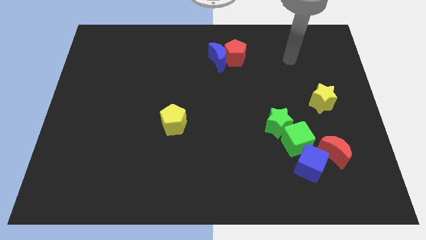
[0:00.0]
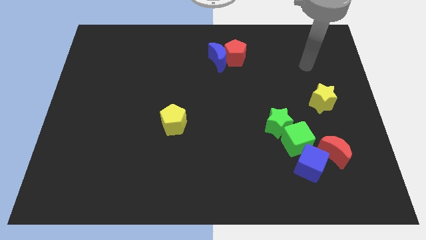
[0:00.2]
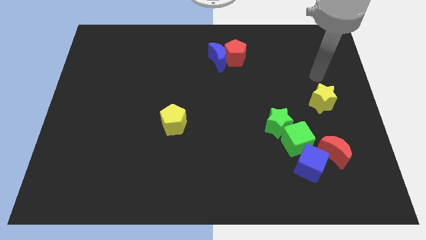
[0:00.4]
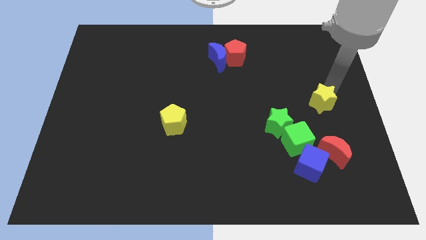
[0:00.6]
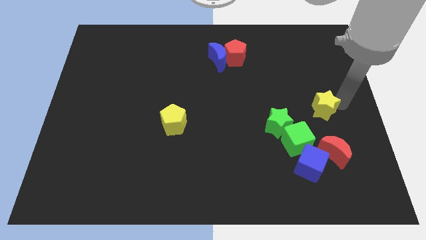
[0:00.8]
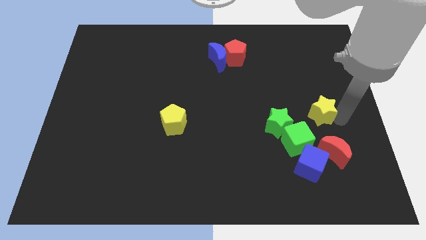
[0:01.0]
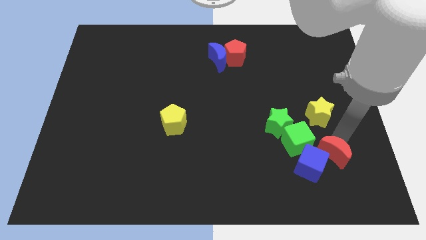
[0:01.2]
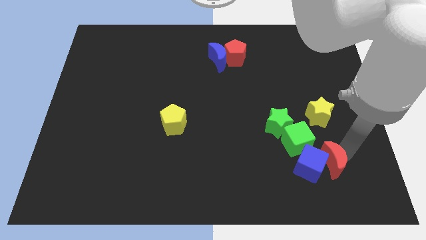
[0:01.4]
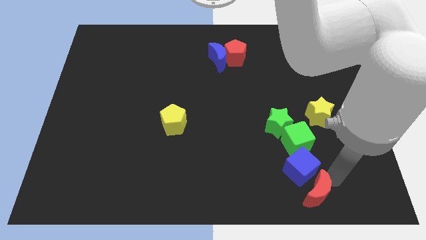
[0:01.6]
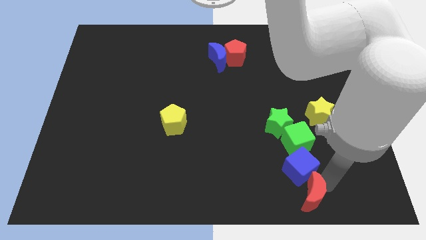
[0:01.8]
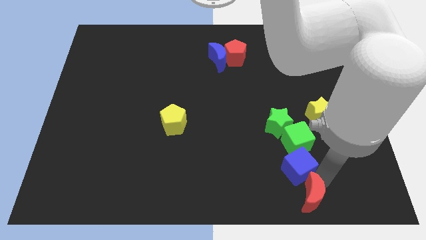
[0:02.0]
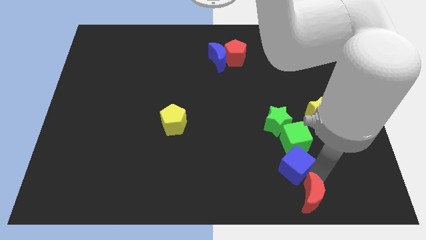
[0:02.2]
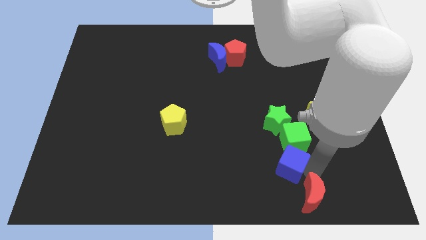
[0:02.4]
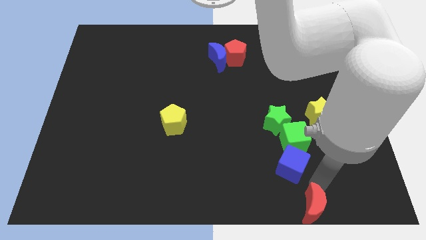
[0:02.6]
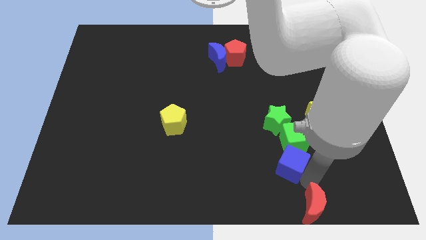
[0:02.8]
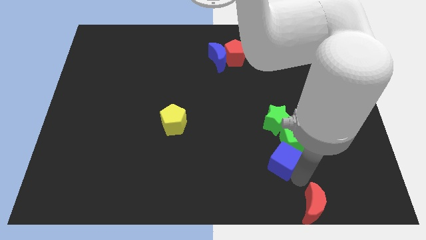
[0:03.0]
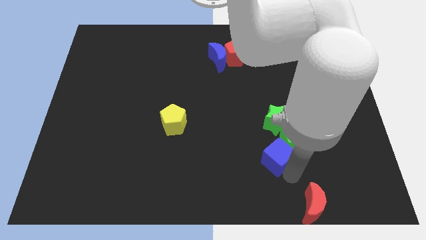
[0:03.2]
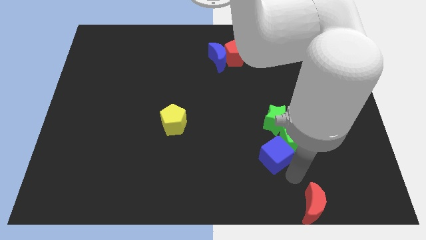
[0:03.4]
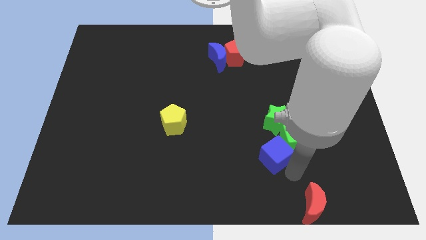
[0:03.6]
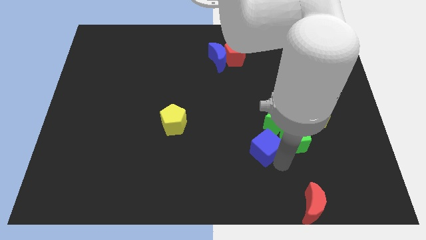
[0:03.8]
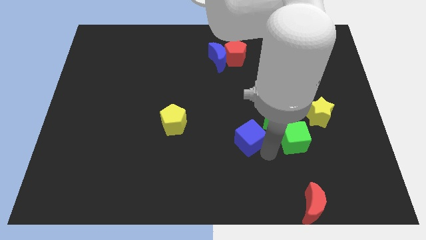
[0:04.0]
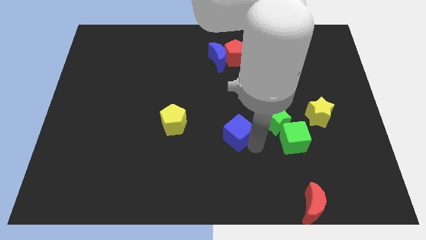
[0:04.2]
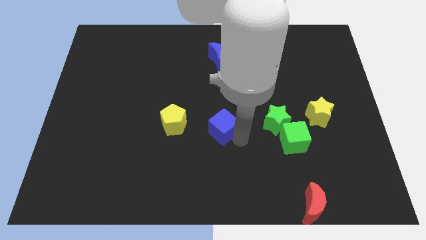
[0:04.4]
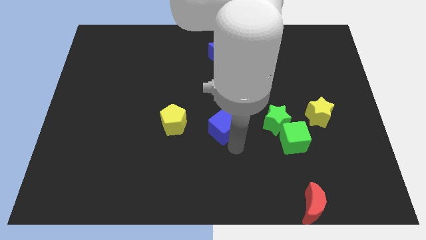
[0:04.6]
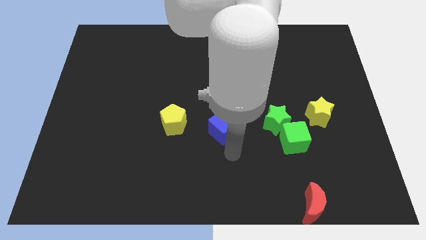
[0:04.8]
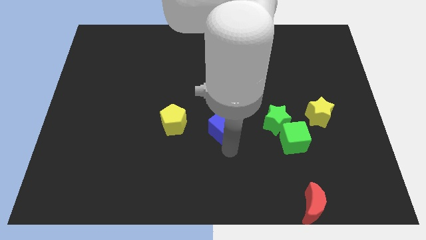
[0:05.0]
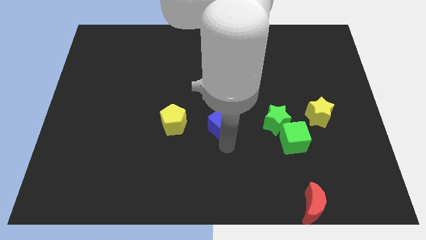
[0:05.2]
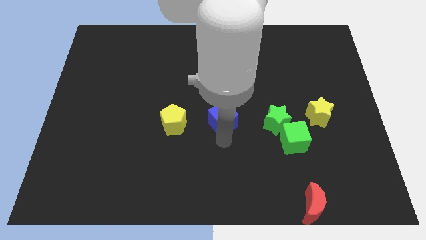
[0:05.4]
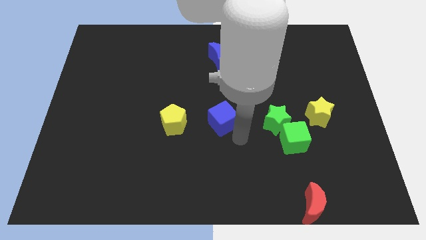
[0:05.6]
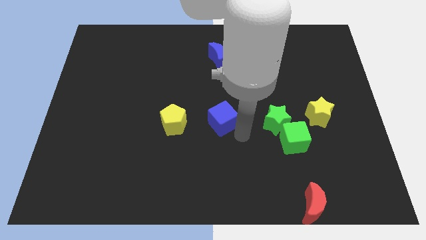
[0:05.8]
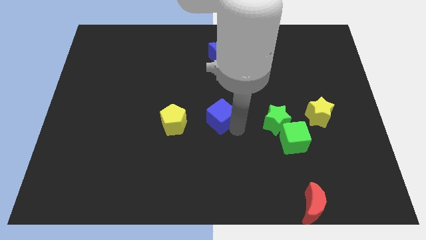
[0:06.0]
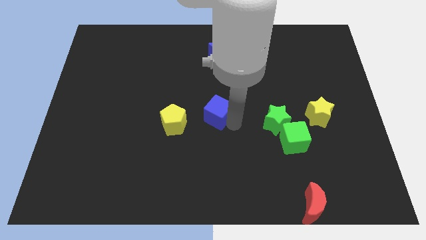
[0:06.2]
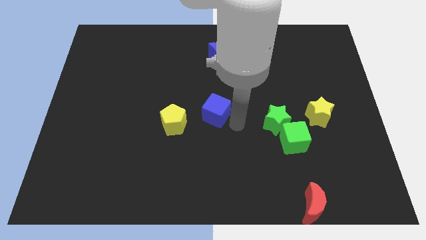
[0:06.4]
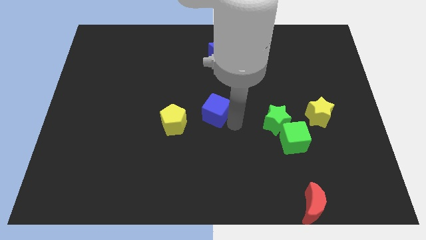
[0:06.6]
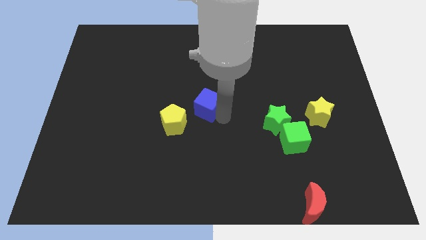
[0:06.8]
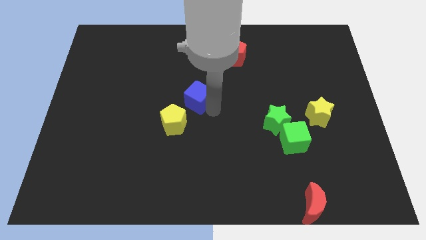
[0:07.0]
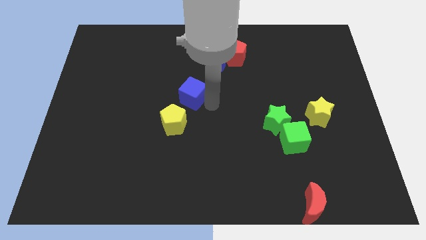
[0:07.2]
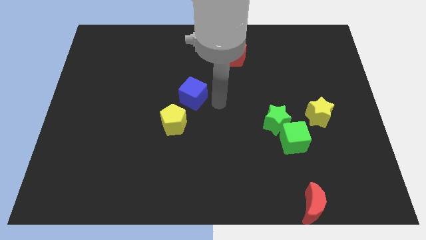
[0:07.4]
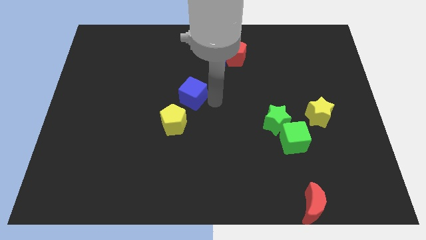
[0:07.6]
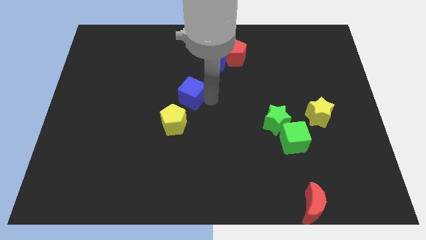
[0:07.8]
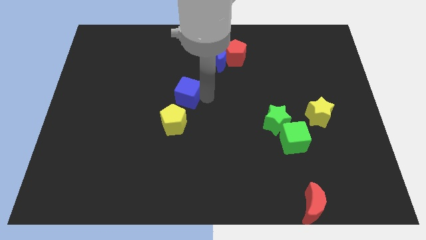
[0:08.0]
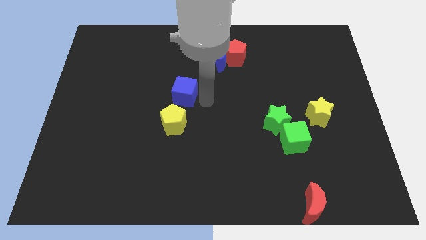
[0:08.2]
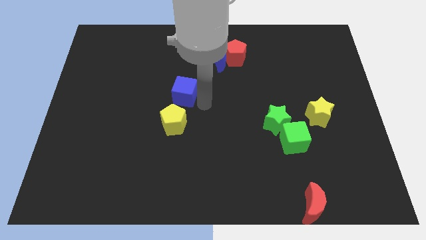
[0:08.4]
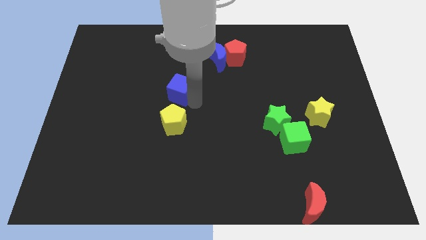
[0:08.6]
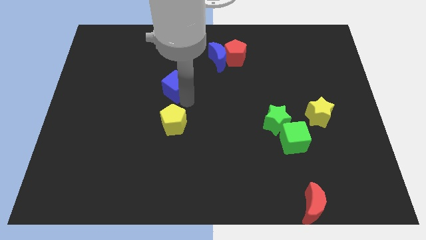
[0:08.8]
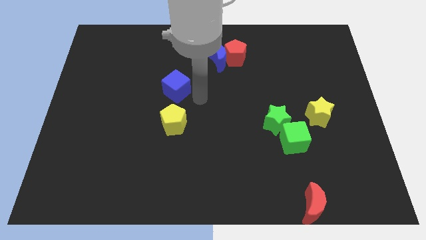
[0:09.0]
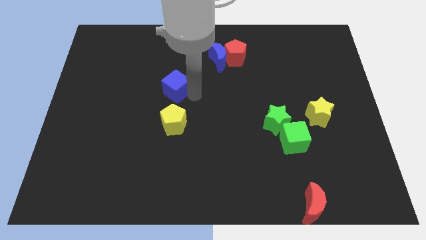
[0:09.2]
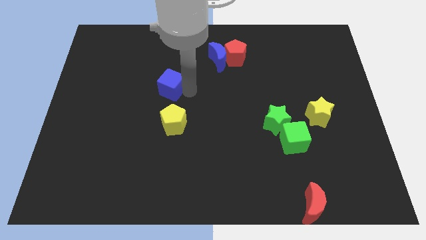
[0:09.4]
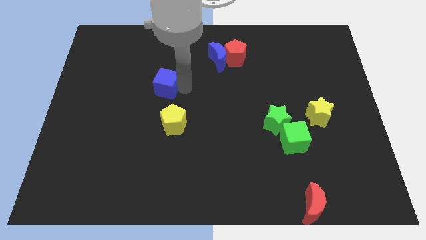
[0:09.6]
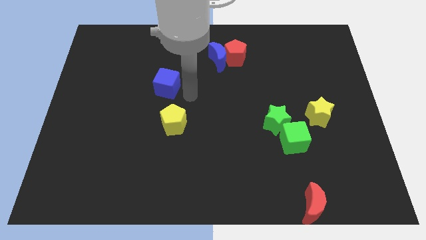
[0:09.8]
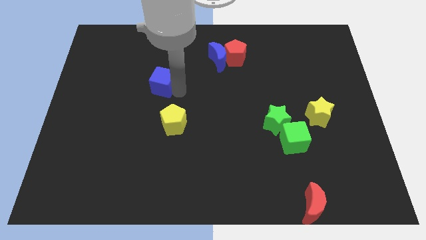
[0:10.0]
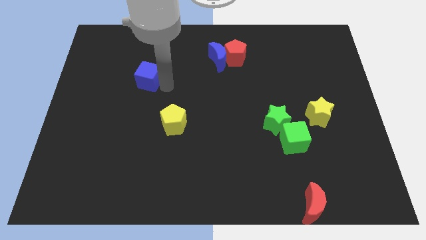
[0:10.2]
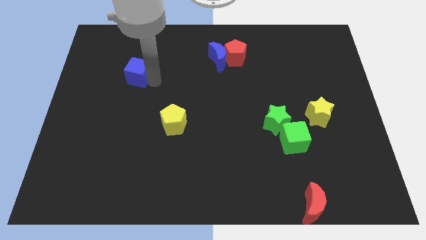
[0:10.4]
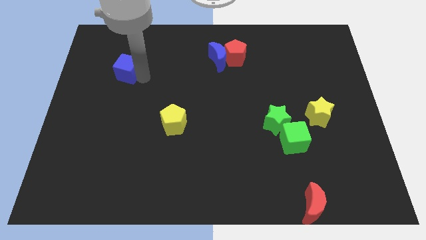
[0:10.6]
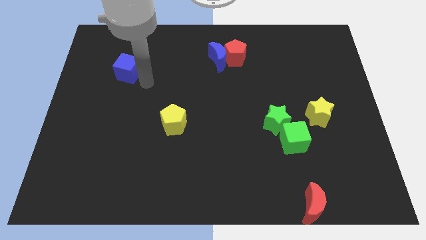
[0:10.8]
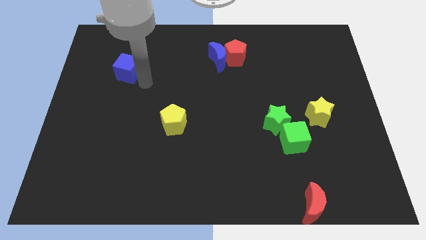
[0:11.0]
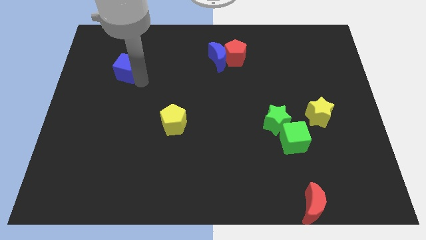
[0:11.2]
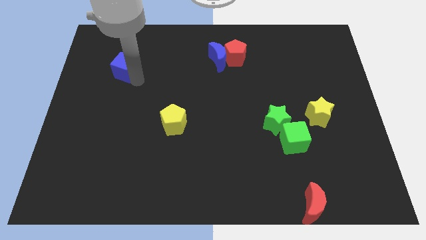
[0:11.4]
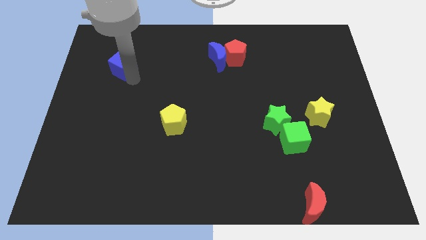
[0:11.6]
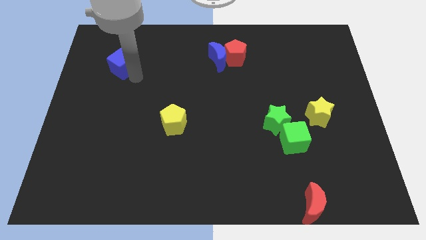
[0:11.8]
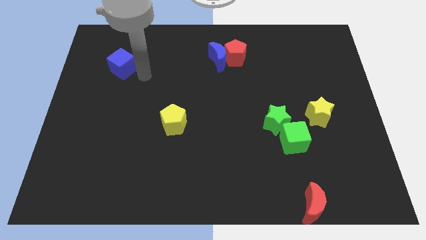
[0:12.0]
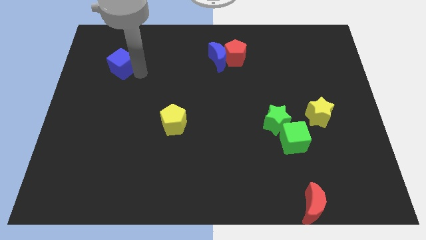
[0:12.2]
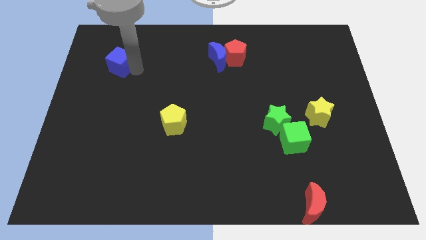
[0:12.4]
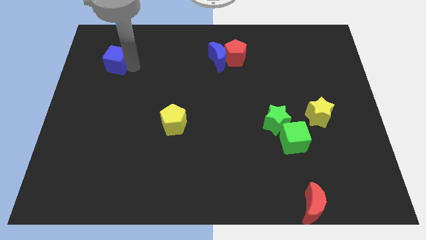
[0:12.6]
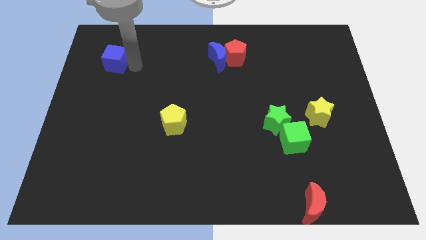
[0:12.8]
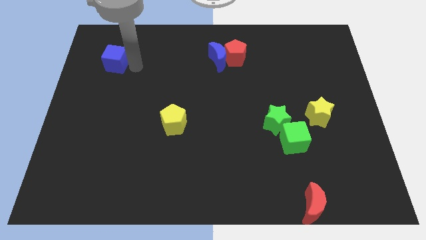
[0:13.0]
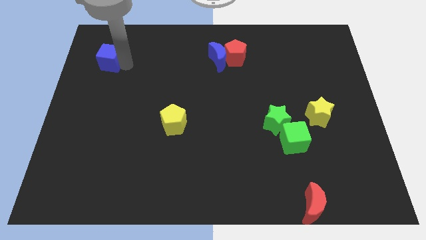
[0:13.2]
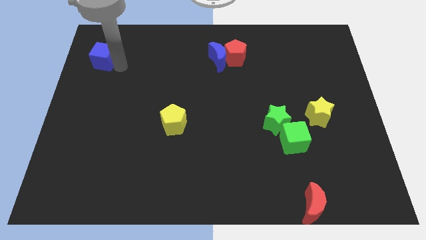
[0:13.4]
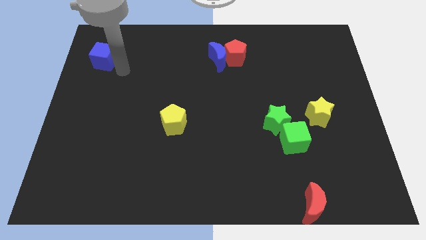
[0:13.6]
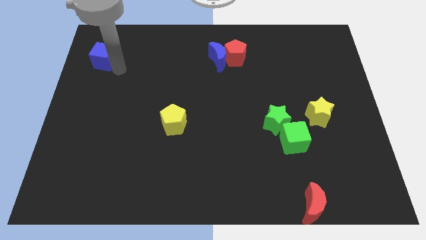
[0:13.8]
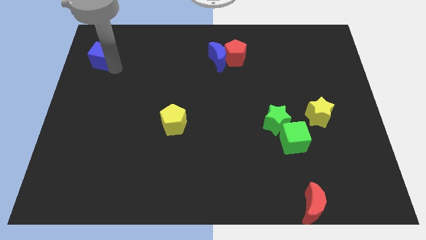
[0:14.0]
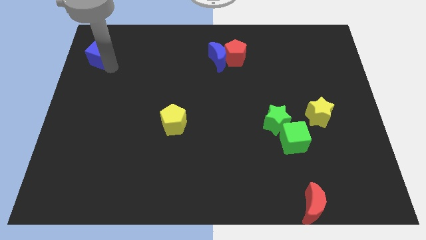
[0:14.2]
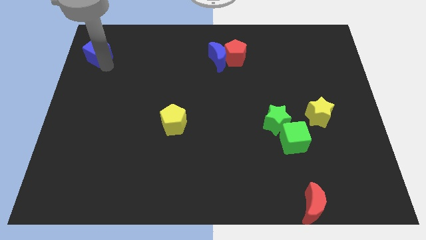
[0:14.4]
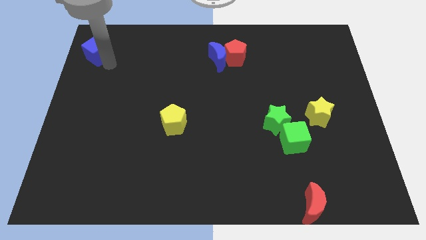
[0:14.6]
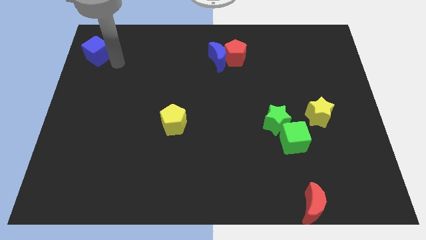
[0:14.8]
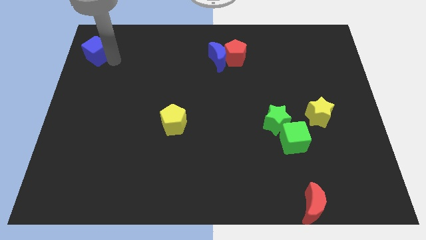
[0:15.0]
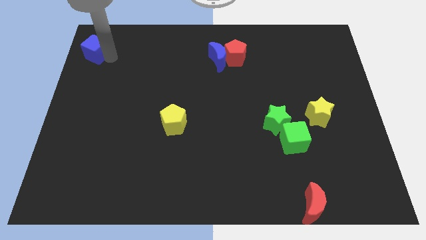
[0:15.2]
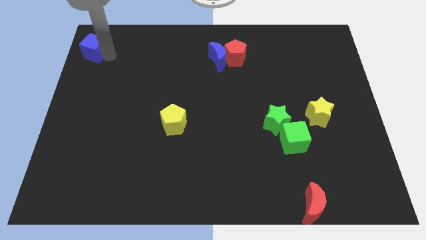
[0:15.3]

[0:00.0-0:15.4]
slide the blue cube to the top left corner
